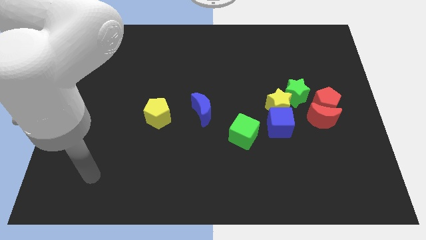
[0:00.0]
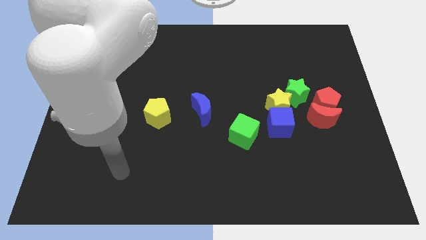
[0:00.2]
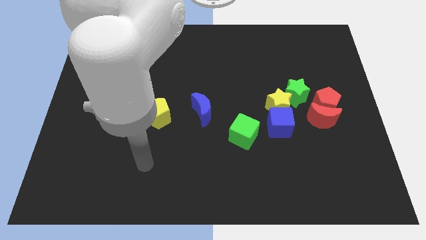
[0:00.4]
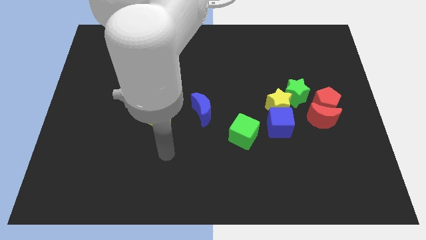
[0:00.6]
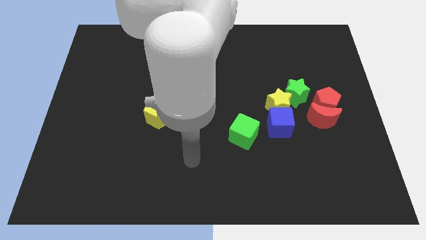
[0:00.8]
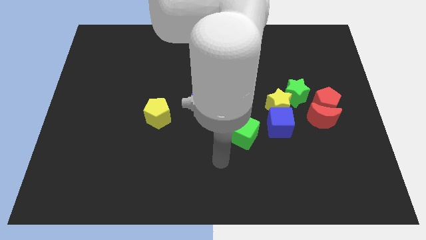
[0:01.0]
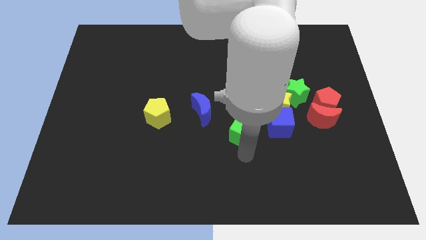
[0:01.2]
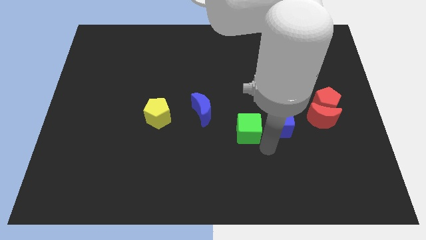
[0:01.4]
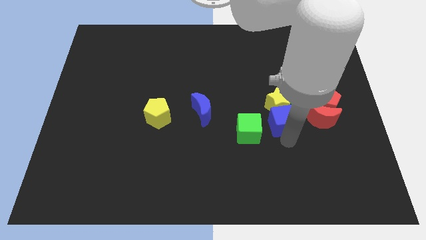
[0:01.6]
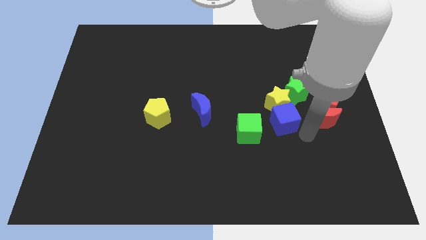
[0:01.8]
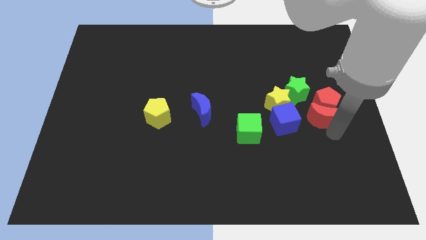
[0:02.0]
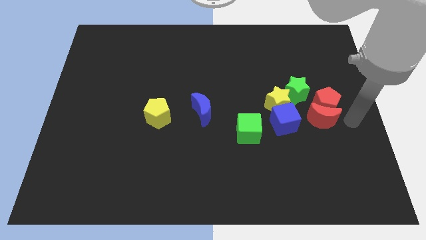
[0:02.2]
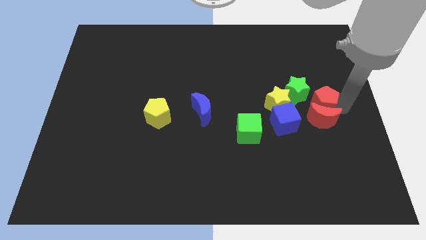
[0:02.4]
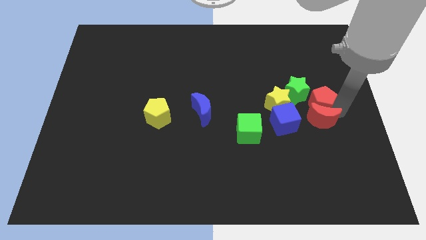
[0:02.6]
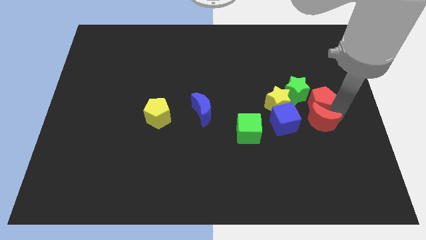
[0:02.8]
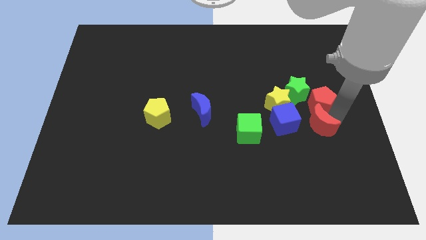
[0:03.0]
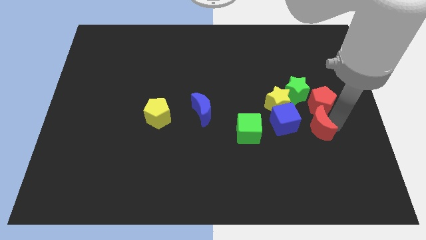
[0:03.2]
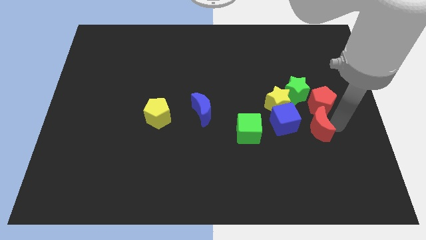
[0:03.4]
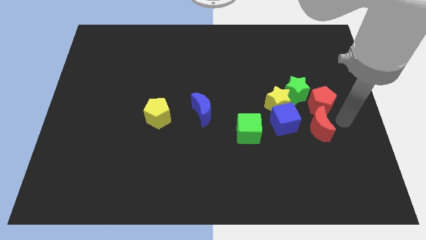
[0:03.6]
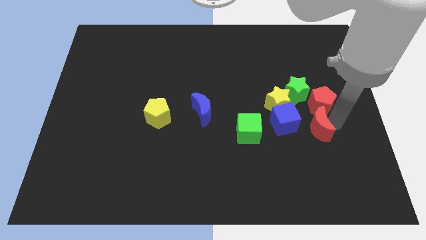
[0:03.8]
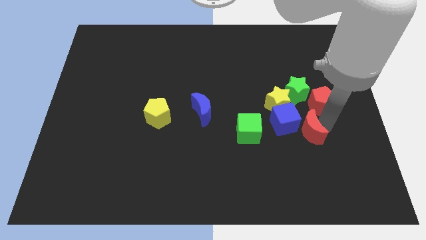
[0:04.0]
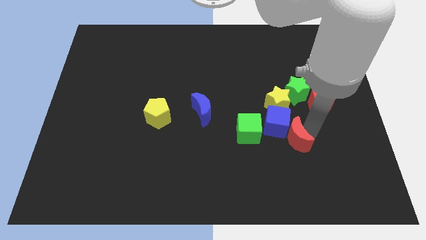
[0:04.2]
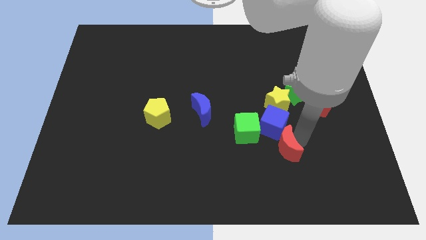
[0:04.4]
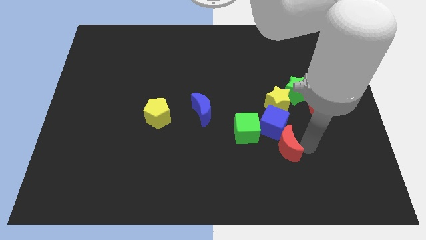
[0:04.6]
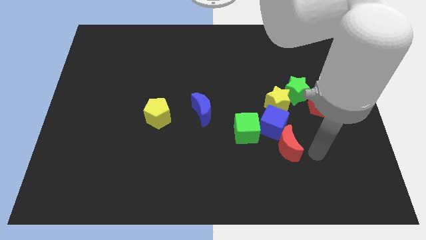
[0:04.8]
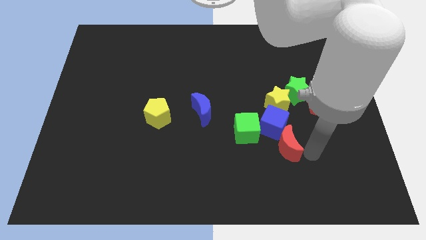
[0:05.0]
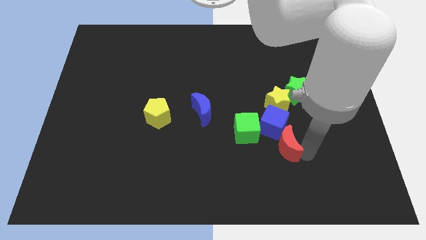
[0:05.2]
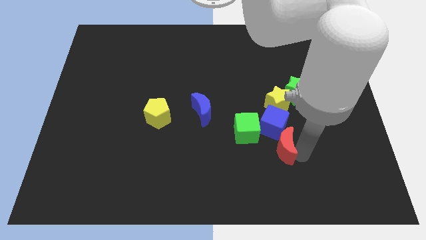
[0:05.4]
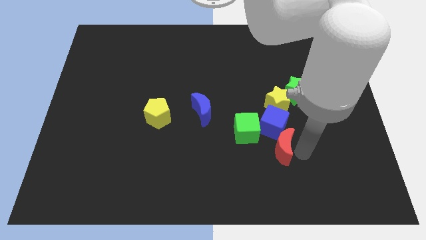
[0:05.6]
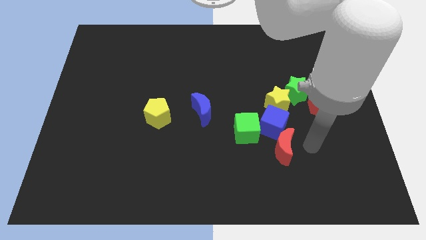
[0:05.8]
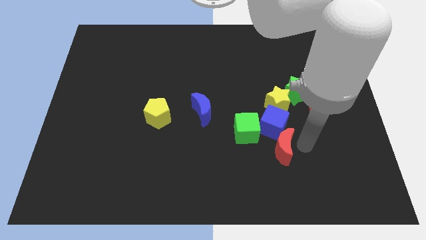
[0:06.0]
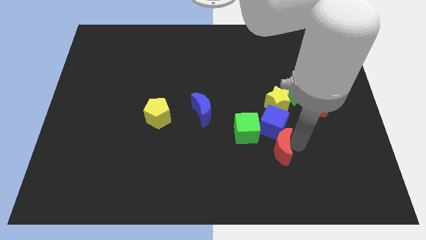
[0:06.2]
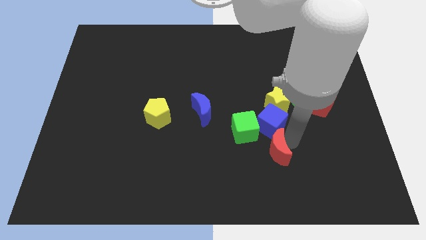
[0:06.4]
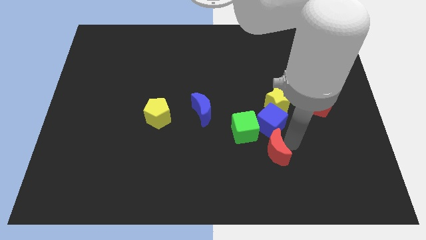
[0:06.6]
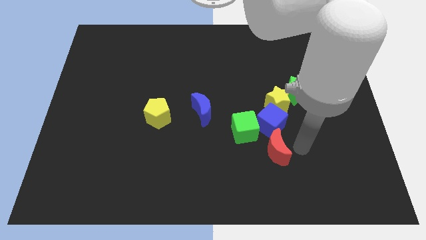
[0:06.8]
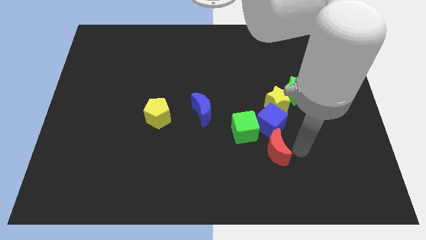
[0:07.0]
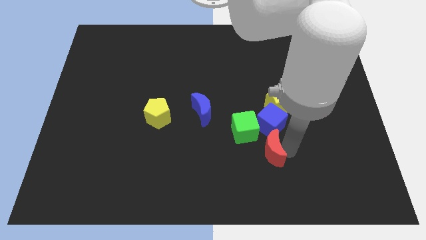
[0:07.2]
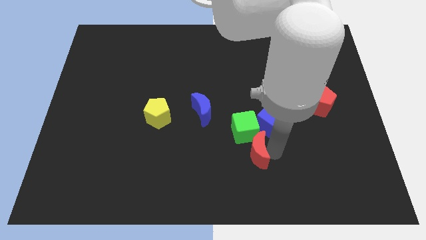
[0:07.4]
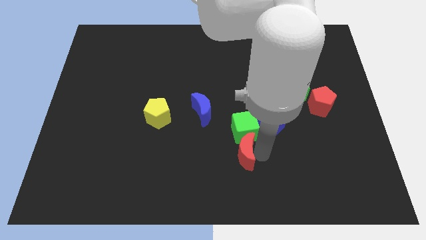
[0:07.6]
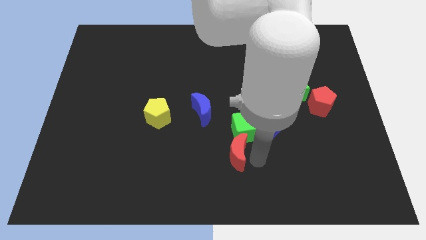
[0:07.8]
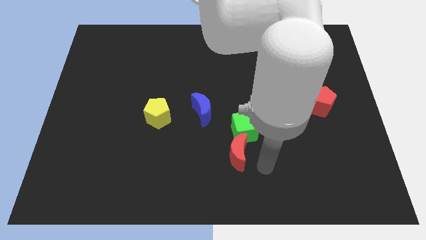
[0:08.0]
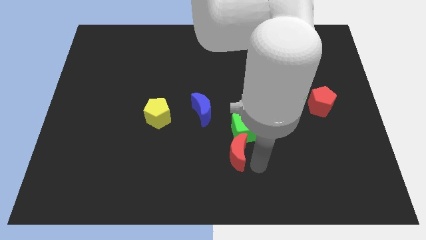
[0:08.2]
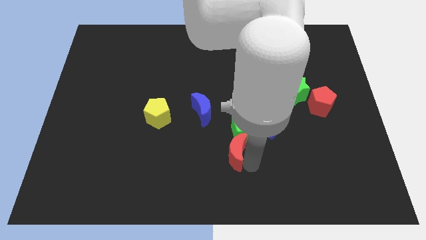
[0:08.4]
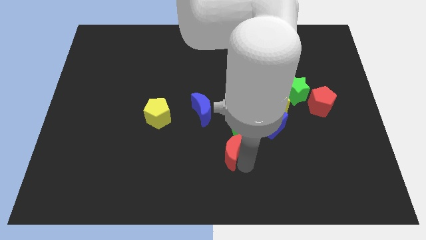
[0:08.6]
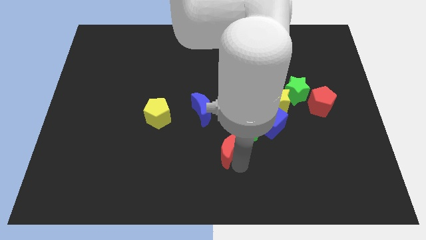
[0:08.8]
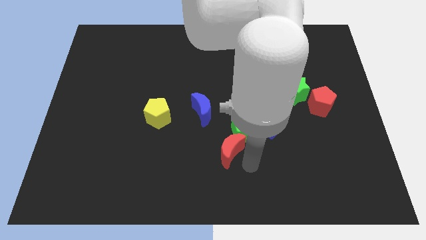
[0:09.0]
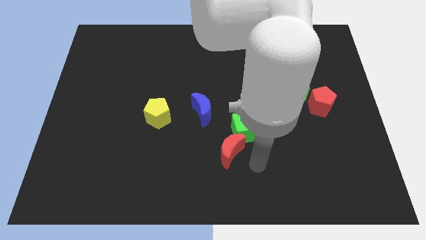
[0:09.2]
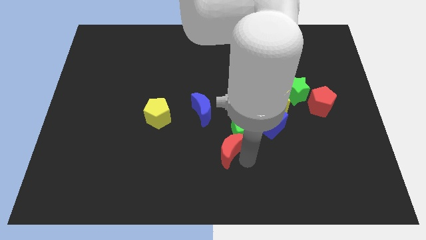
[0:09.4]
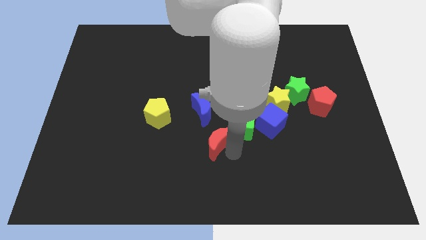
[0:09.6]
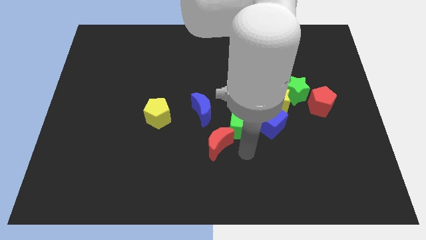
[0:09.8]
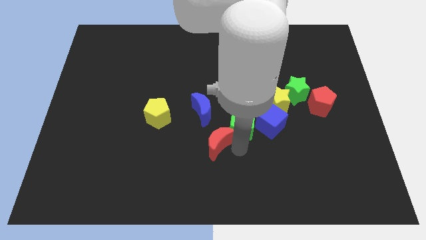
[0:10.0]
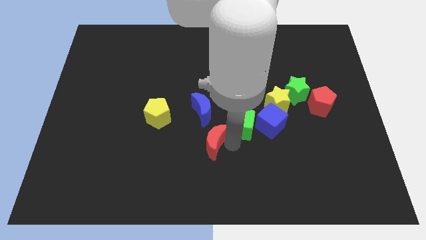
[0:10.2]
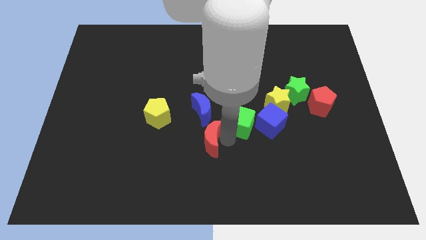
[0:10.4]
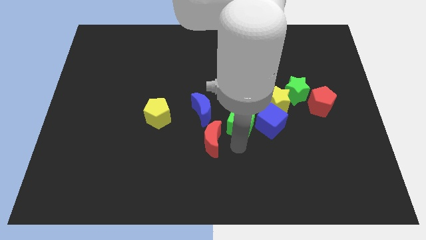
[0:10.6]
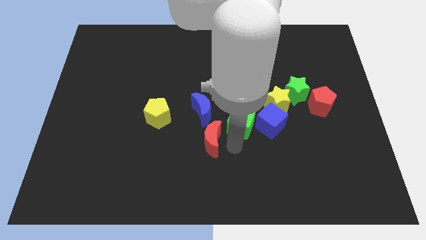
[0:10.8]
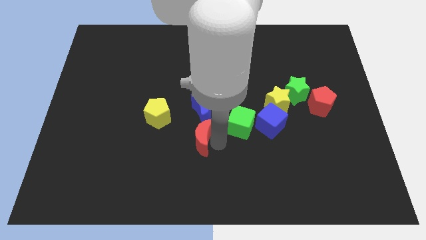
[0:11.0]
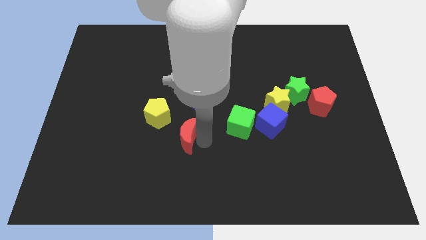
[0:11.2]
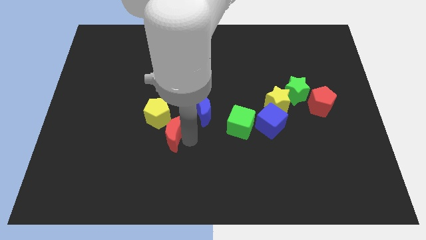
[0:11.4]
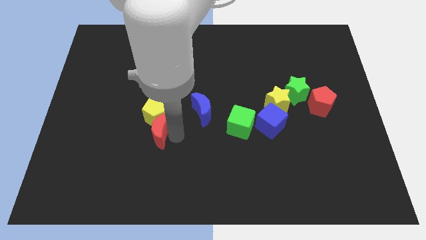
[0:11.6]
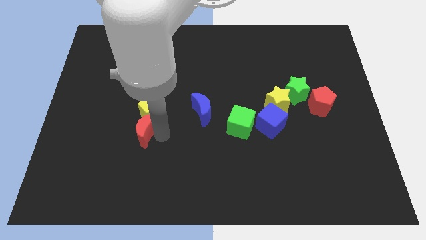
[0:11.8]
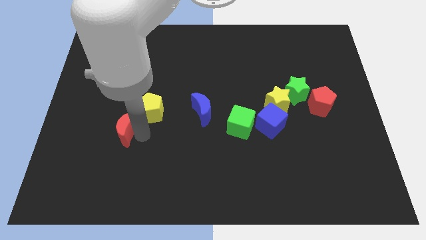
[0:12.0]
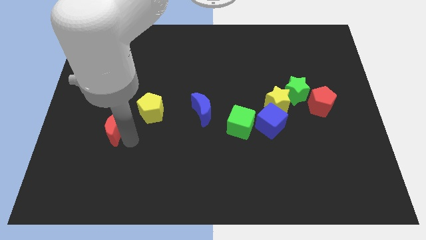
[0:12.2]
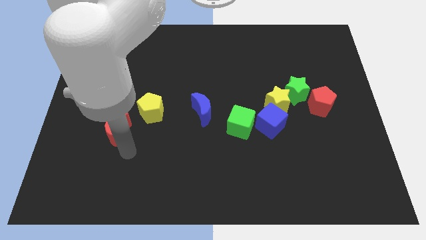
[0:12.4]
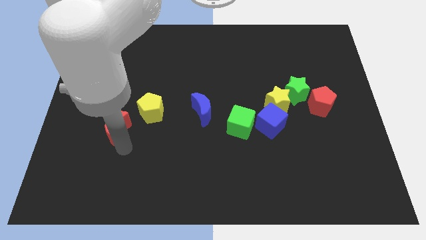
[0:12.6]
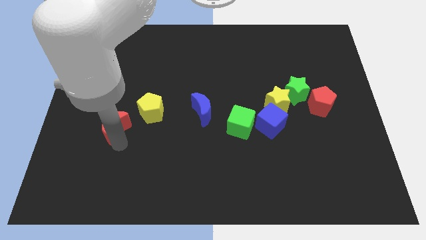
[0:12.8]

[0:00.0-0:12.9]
slide the red moon just left of the yellow pentagon
